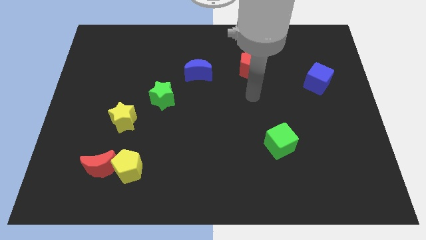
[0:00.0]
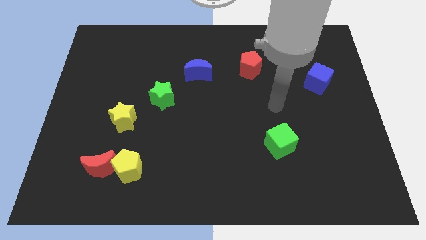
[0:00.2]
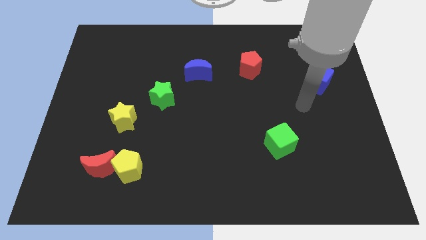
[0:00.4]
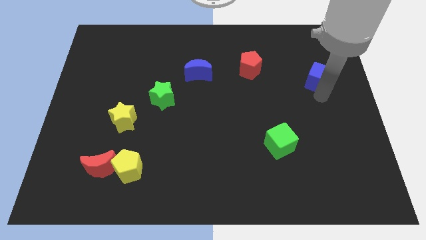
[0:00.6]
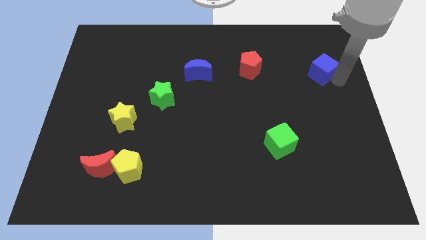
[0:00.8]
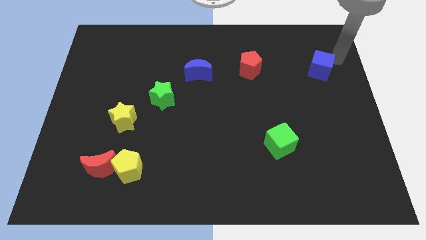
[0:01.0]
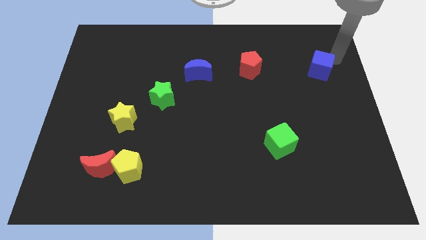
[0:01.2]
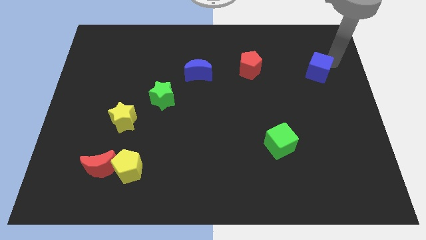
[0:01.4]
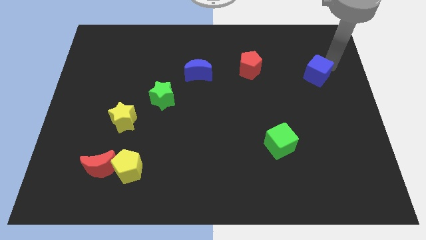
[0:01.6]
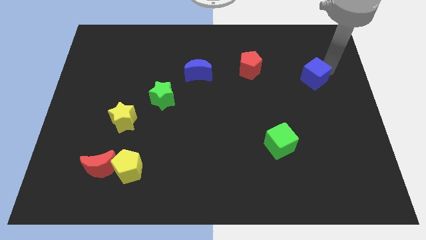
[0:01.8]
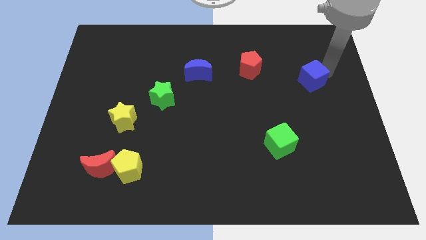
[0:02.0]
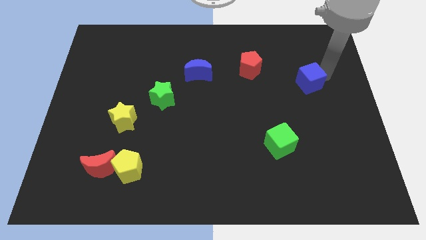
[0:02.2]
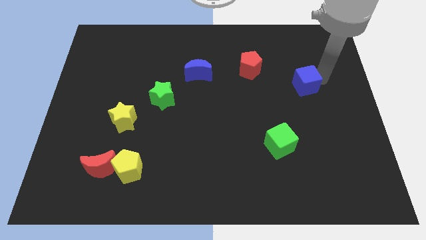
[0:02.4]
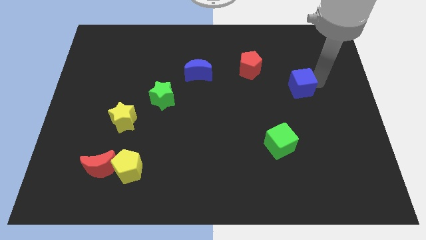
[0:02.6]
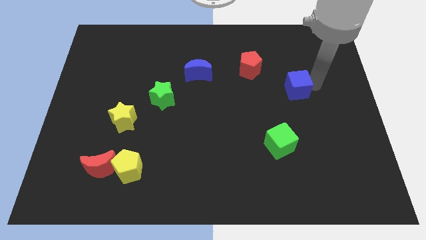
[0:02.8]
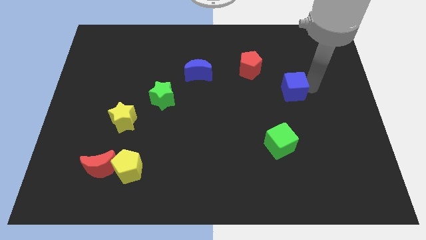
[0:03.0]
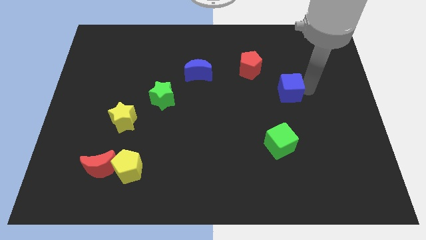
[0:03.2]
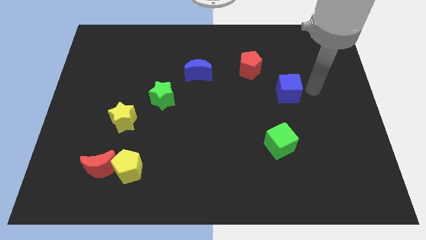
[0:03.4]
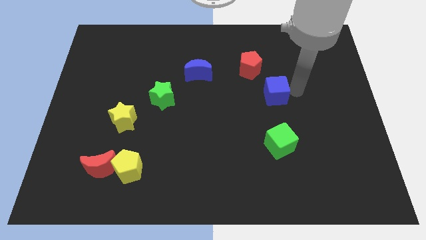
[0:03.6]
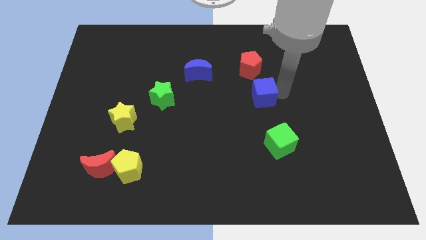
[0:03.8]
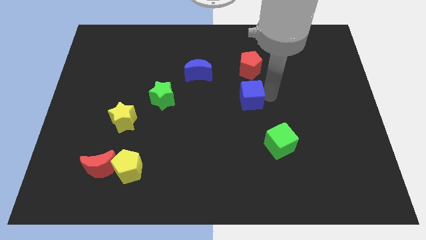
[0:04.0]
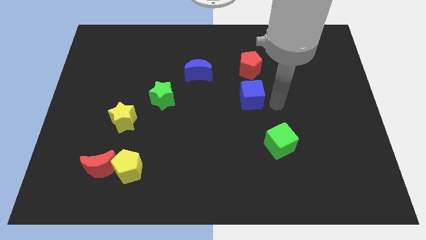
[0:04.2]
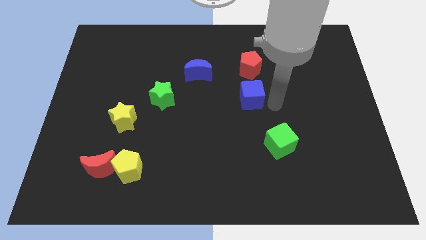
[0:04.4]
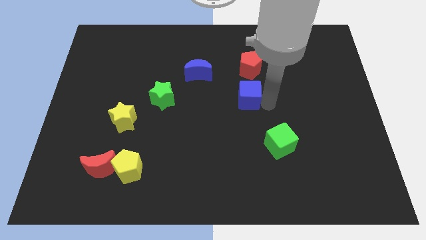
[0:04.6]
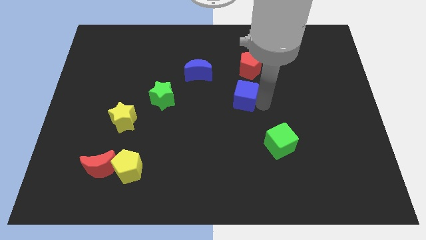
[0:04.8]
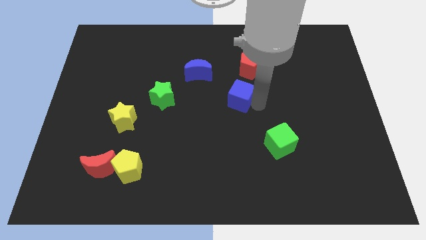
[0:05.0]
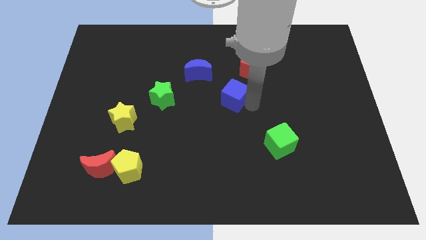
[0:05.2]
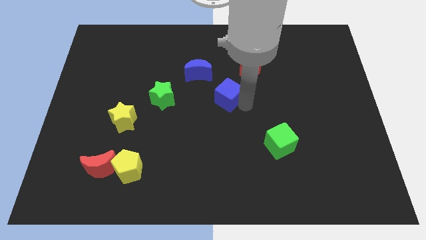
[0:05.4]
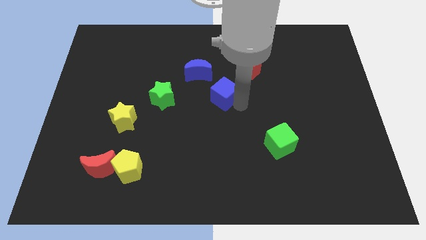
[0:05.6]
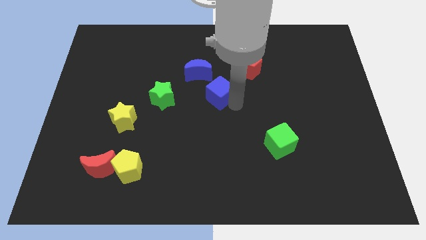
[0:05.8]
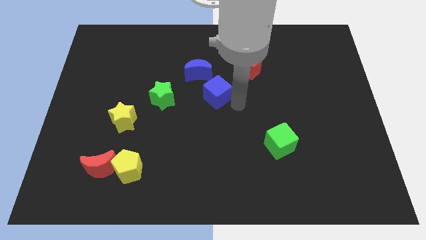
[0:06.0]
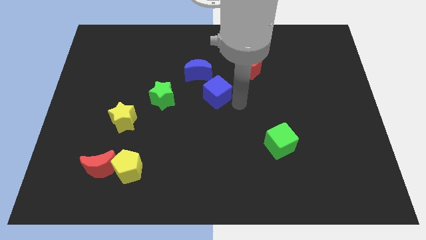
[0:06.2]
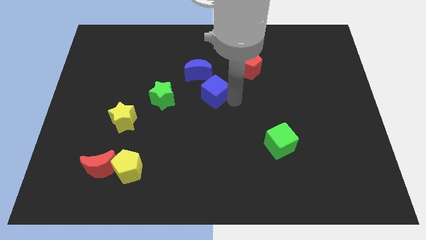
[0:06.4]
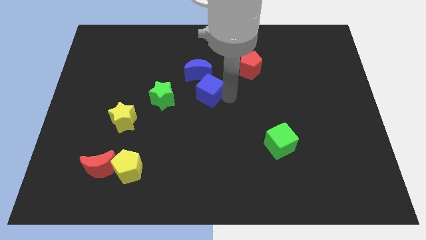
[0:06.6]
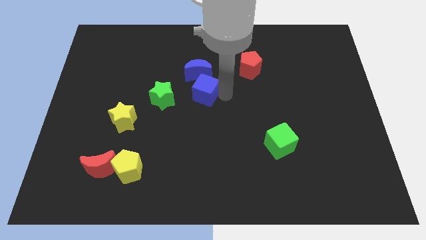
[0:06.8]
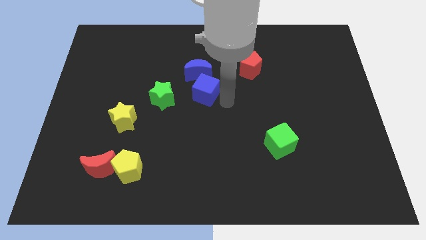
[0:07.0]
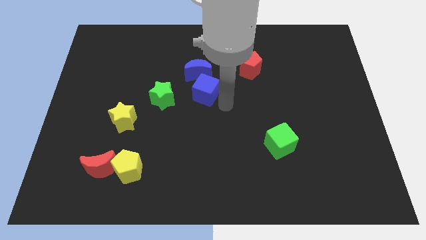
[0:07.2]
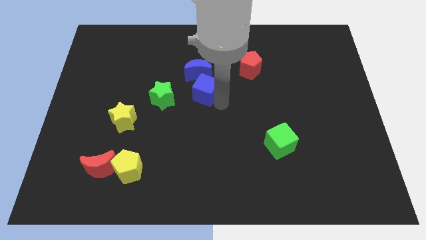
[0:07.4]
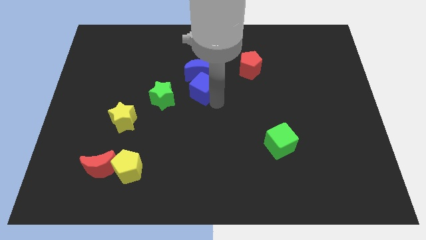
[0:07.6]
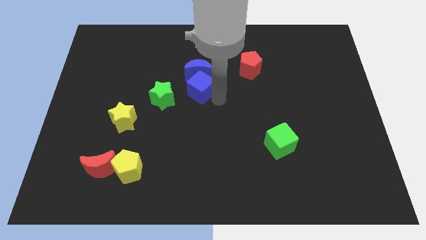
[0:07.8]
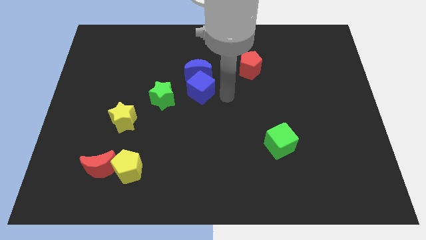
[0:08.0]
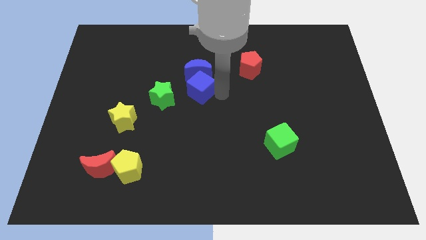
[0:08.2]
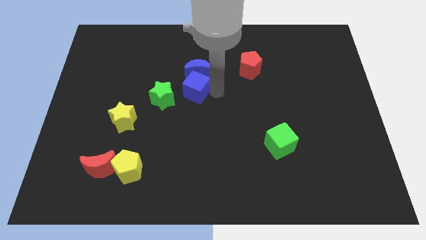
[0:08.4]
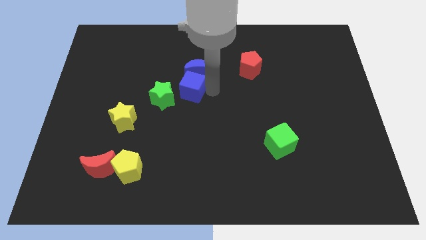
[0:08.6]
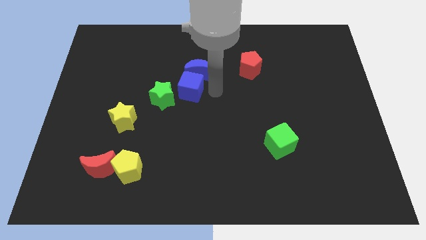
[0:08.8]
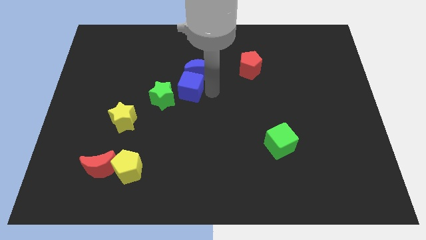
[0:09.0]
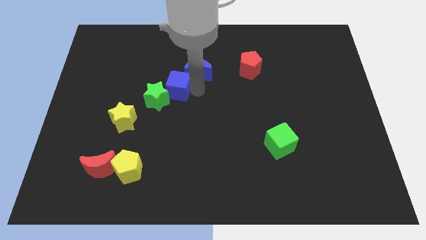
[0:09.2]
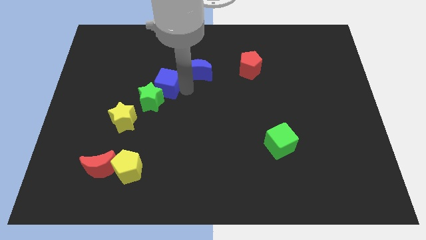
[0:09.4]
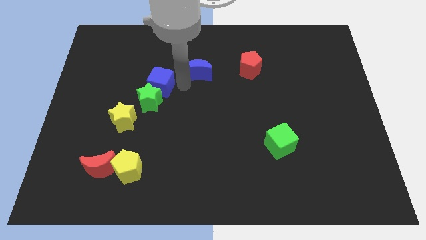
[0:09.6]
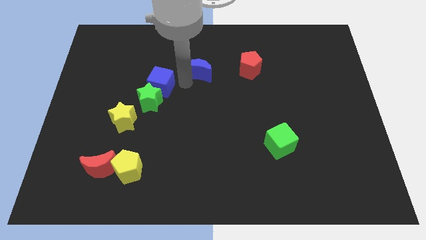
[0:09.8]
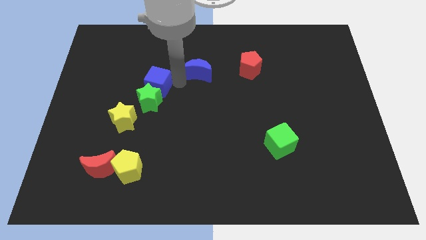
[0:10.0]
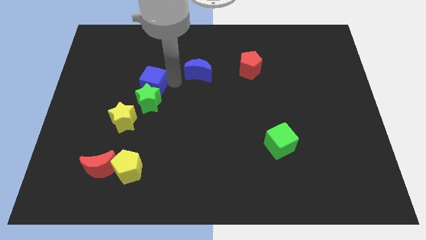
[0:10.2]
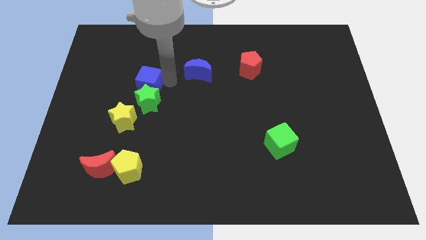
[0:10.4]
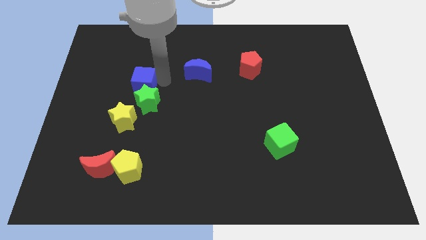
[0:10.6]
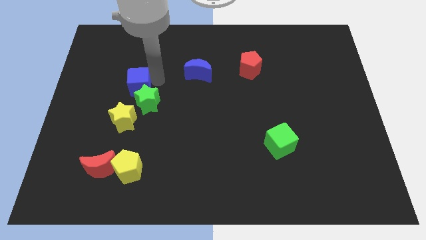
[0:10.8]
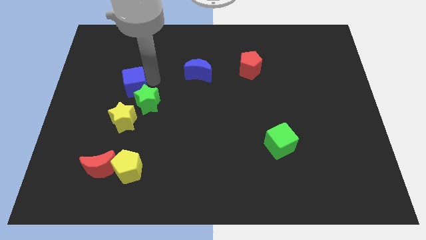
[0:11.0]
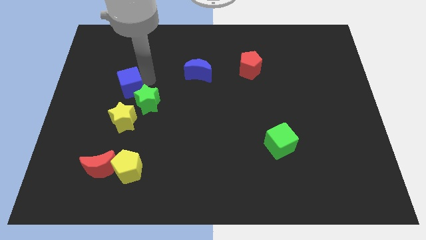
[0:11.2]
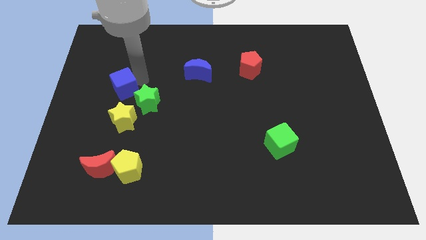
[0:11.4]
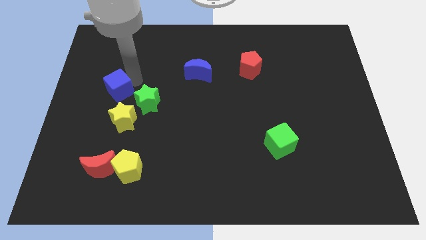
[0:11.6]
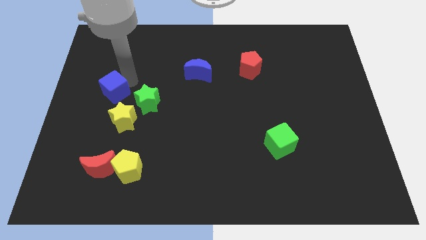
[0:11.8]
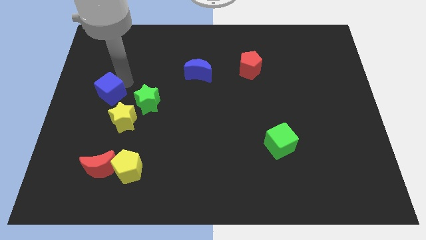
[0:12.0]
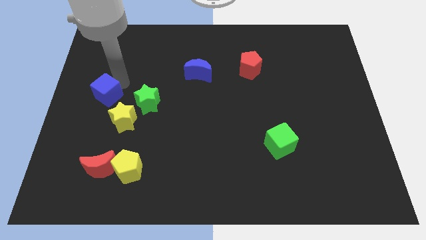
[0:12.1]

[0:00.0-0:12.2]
push the blue cube to the left side of the board

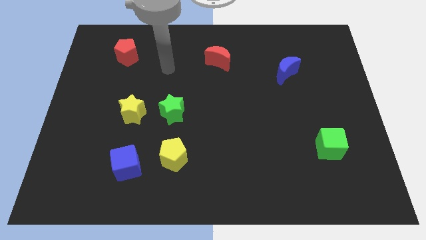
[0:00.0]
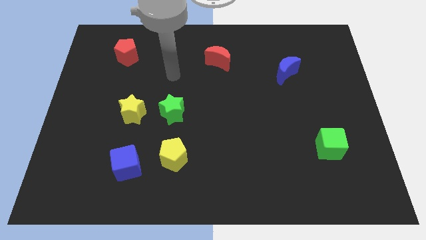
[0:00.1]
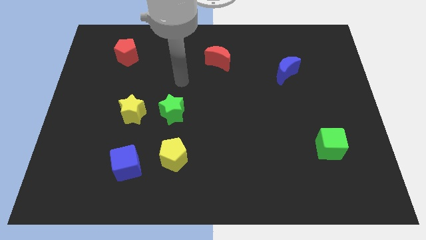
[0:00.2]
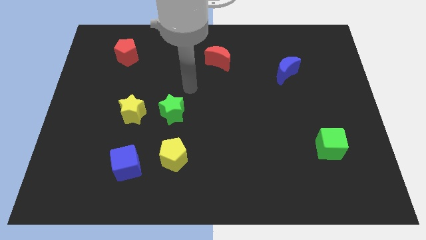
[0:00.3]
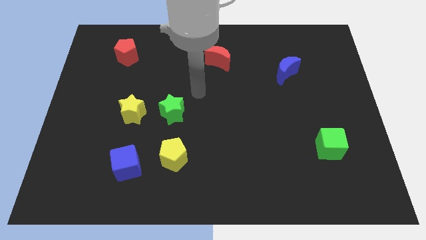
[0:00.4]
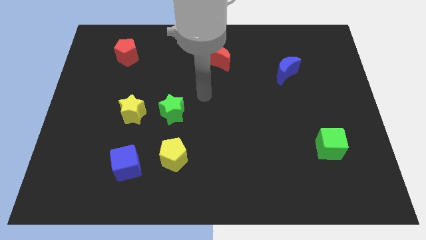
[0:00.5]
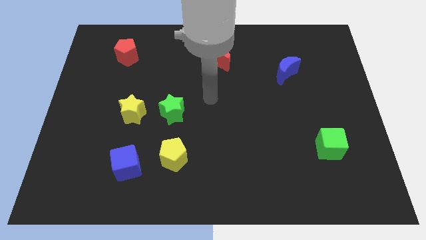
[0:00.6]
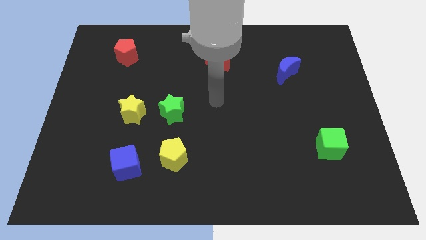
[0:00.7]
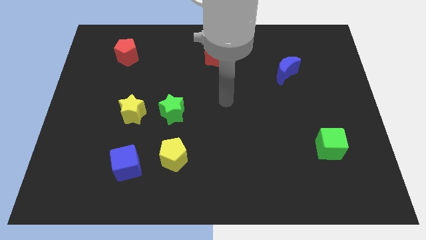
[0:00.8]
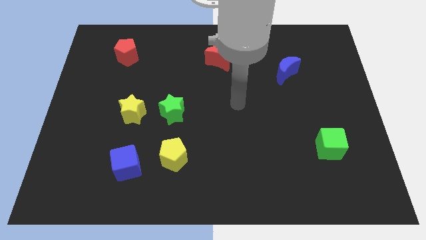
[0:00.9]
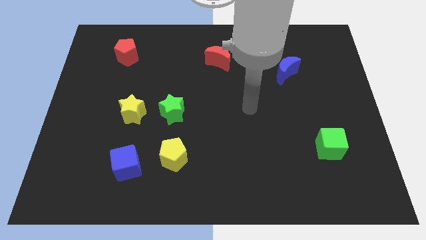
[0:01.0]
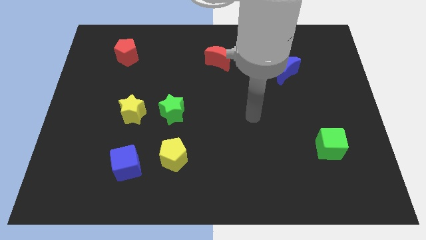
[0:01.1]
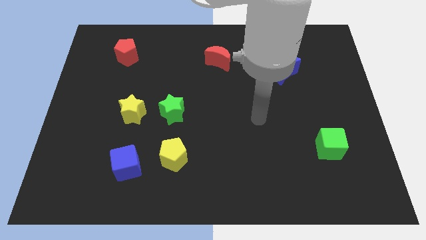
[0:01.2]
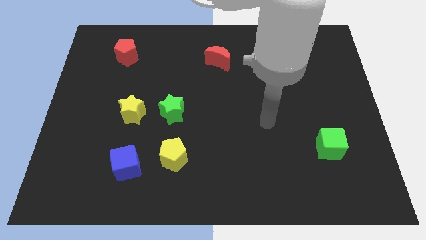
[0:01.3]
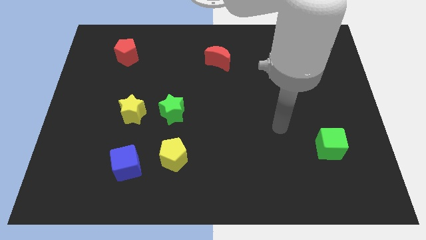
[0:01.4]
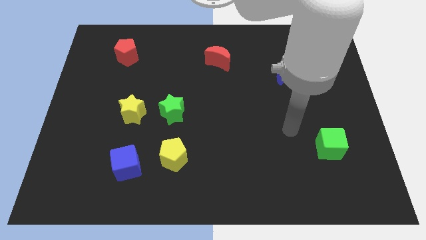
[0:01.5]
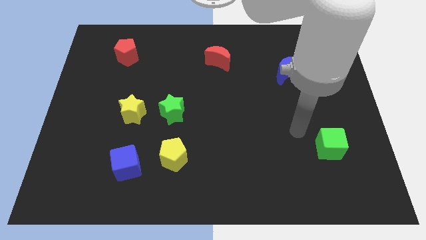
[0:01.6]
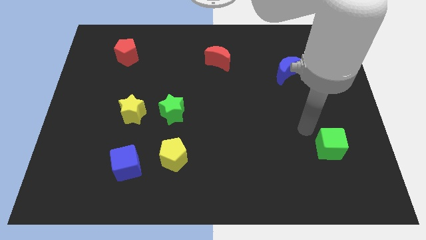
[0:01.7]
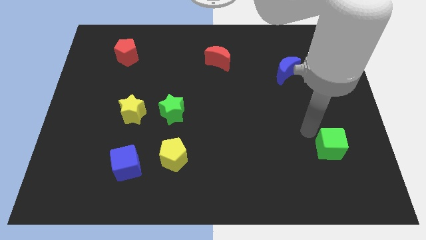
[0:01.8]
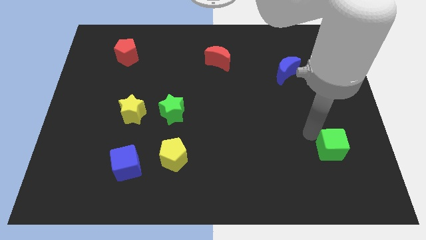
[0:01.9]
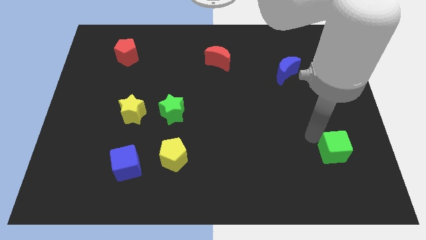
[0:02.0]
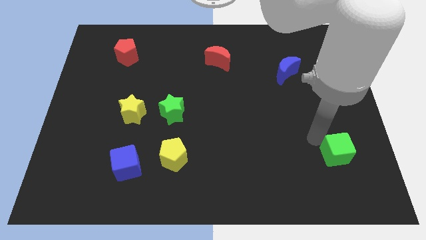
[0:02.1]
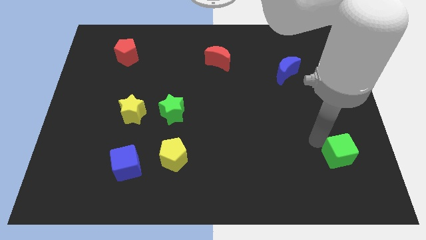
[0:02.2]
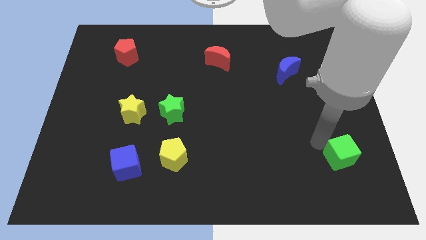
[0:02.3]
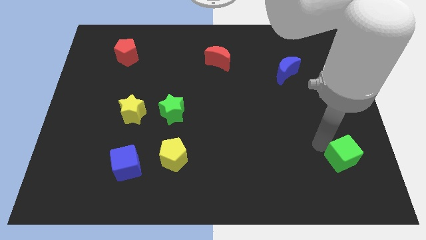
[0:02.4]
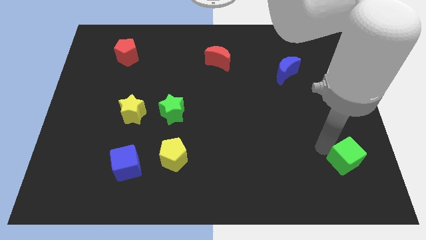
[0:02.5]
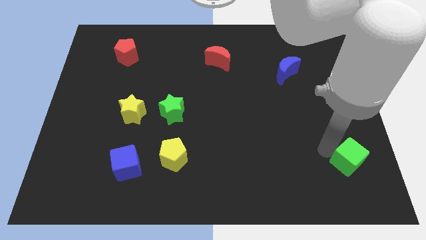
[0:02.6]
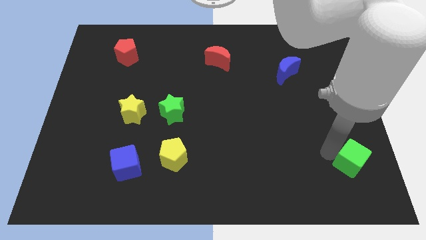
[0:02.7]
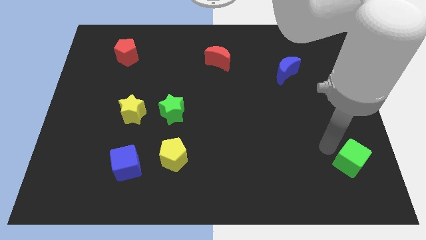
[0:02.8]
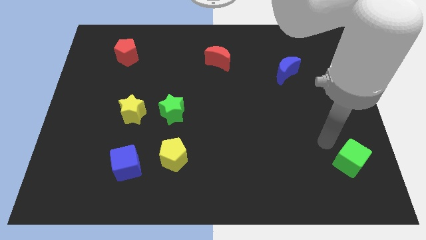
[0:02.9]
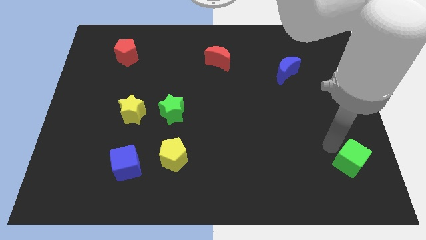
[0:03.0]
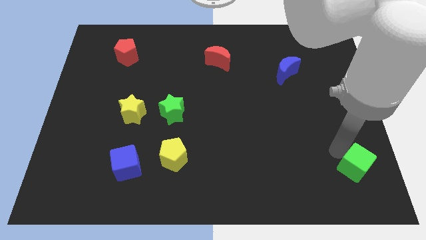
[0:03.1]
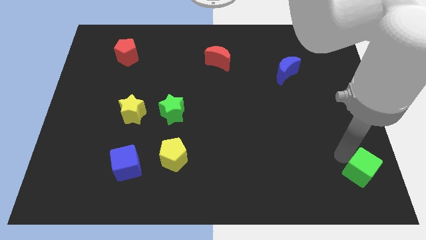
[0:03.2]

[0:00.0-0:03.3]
move the green cube to the bottom right corner
